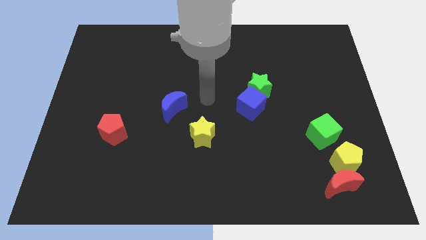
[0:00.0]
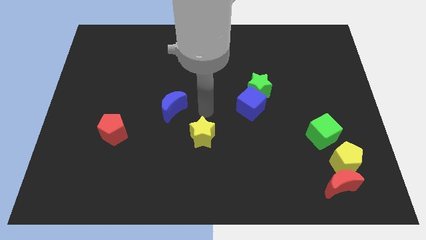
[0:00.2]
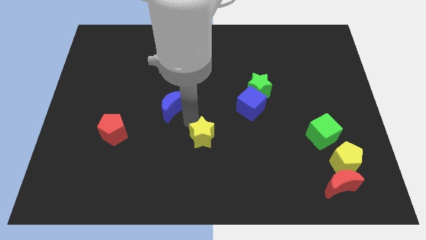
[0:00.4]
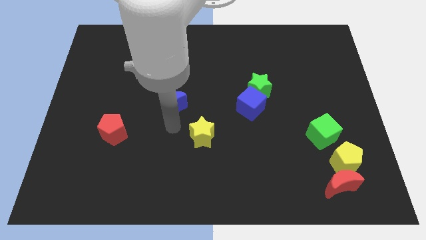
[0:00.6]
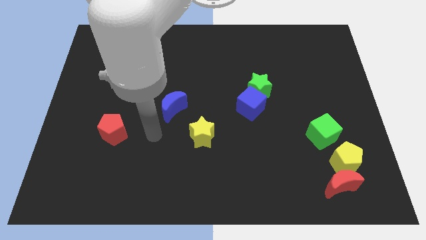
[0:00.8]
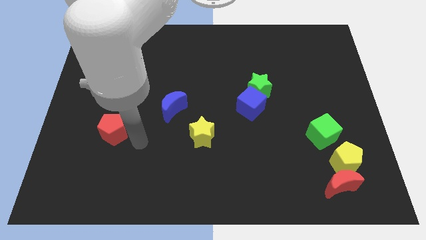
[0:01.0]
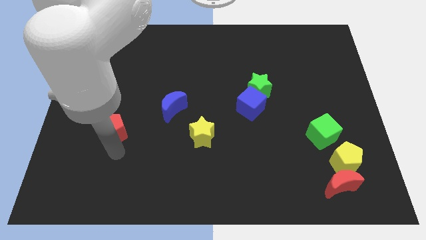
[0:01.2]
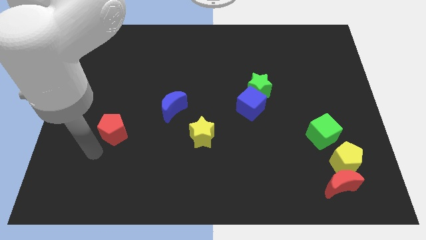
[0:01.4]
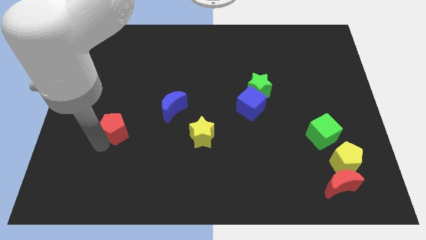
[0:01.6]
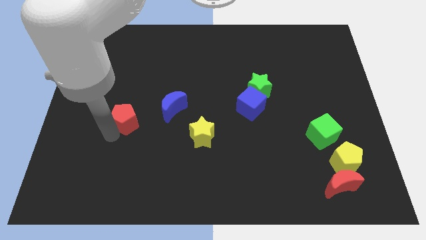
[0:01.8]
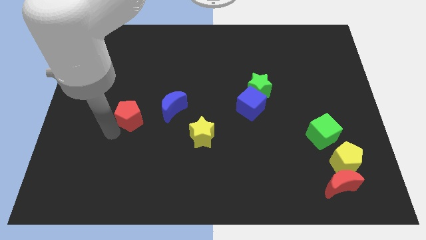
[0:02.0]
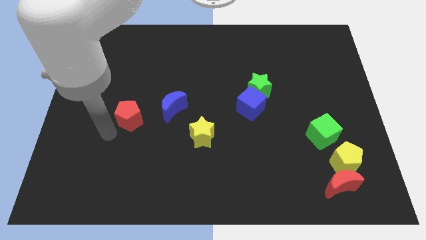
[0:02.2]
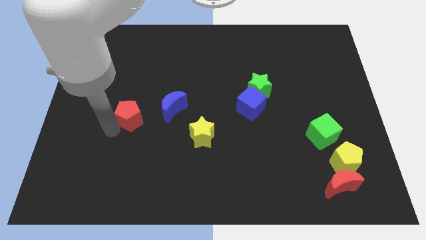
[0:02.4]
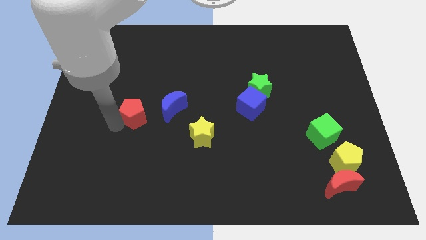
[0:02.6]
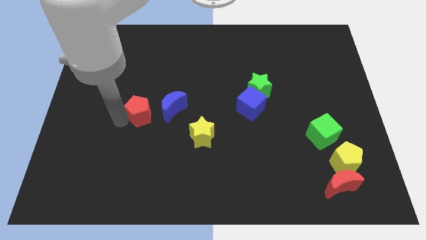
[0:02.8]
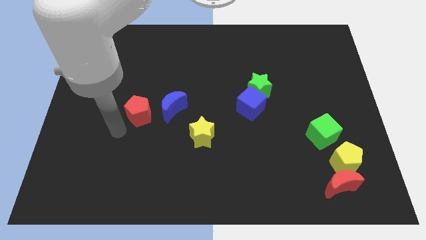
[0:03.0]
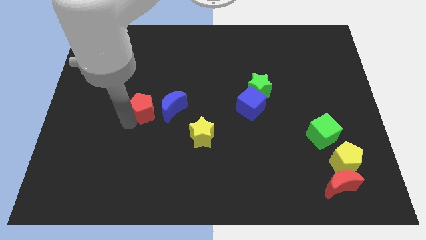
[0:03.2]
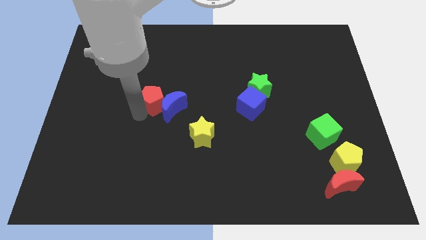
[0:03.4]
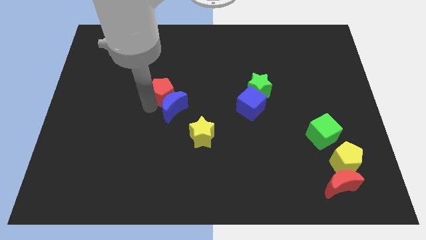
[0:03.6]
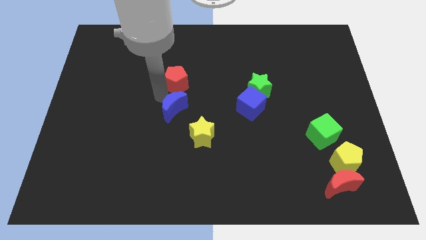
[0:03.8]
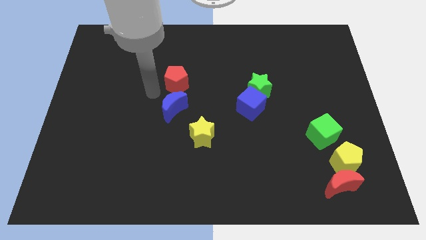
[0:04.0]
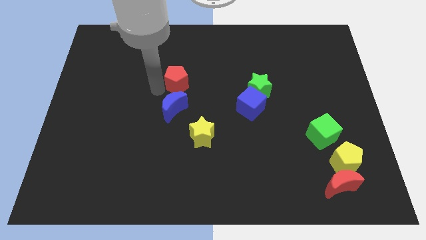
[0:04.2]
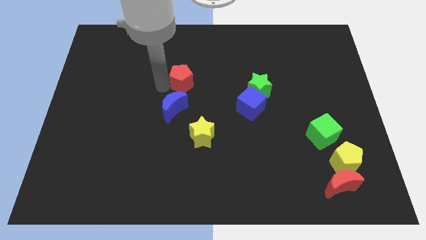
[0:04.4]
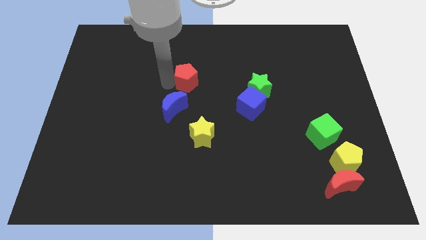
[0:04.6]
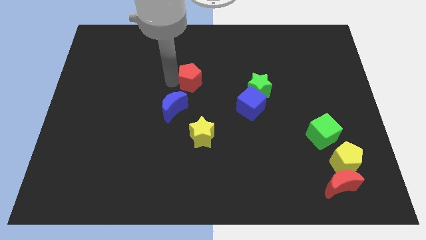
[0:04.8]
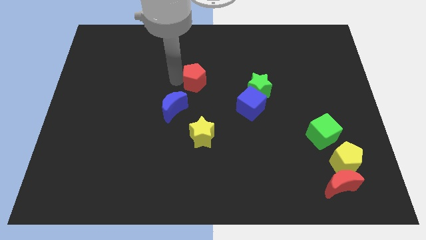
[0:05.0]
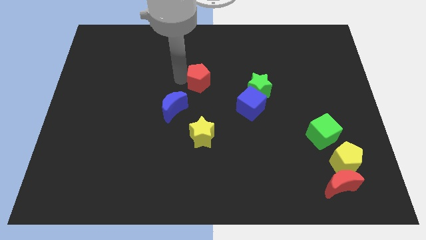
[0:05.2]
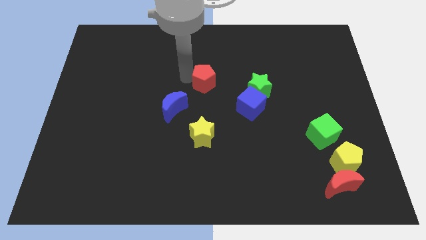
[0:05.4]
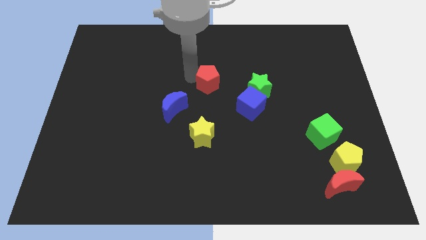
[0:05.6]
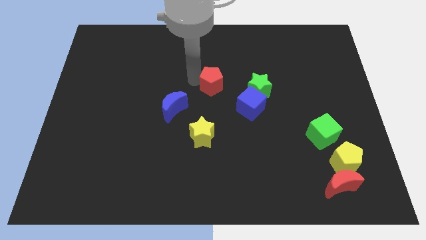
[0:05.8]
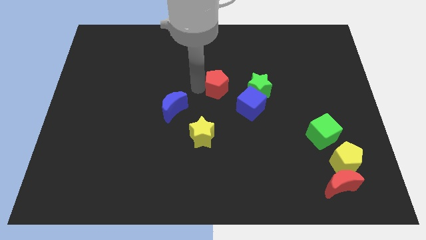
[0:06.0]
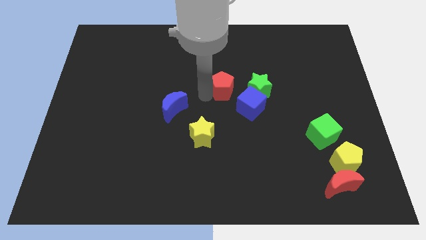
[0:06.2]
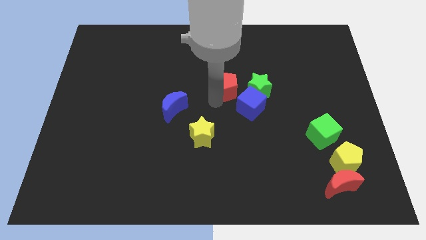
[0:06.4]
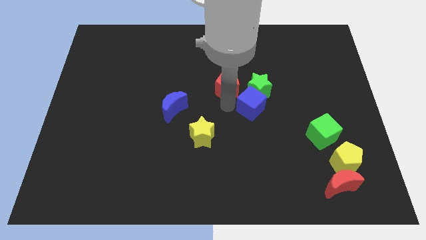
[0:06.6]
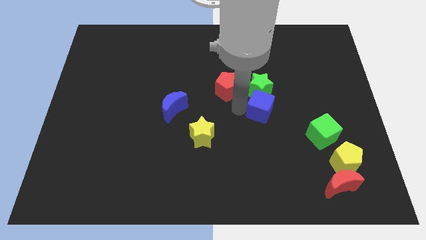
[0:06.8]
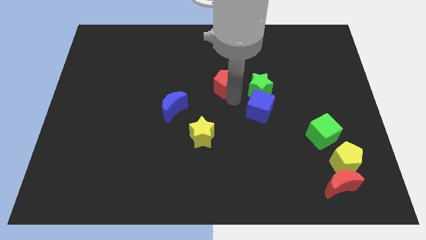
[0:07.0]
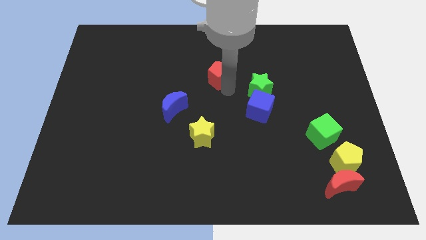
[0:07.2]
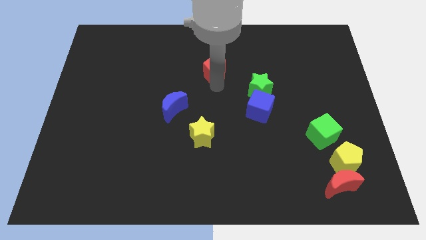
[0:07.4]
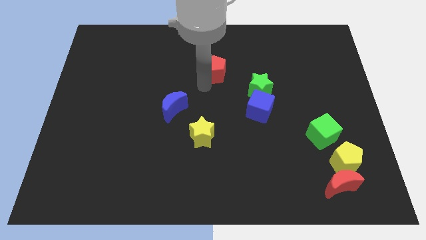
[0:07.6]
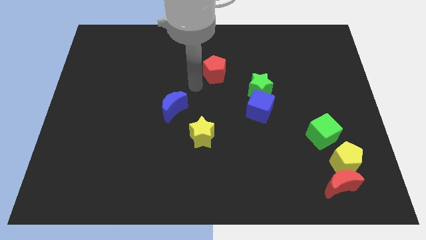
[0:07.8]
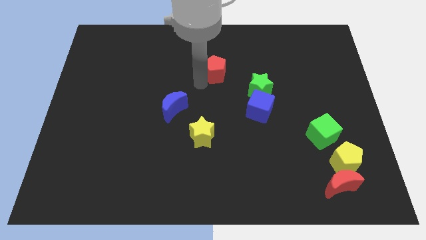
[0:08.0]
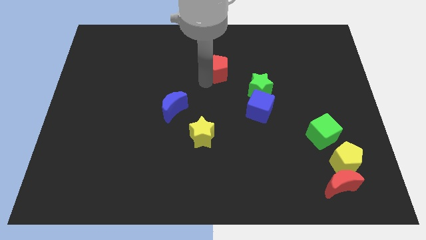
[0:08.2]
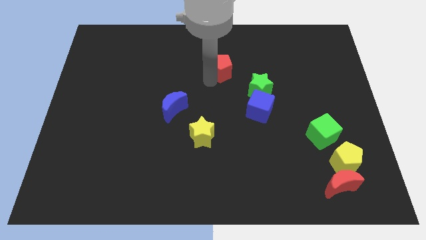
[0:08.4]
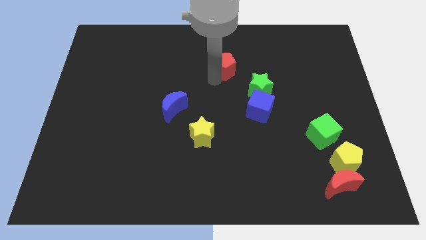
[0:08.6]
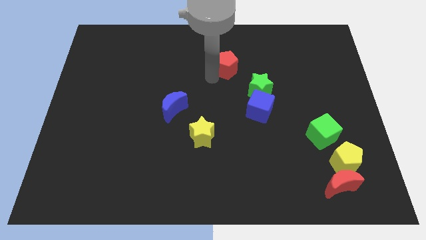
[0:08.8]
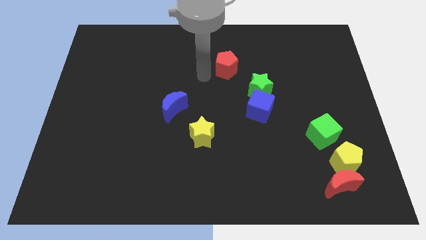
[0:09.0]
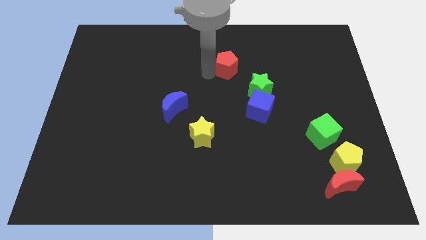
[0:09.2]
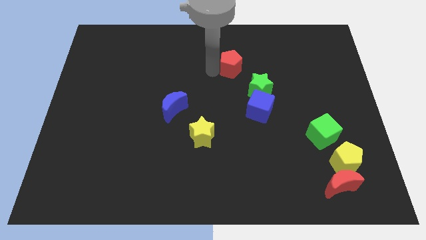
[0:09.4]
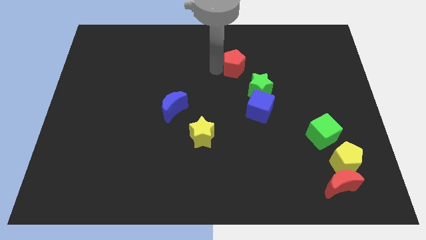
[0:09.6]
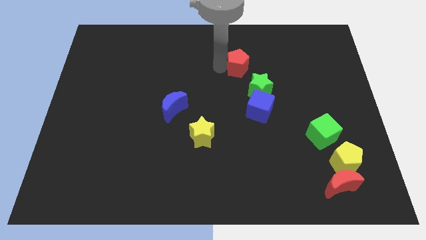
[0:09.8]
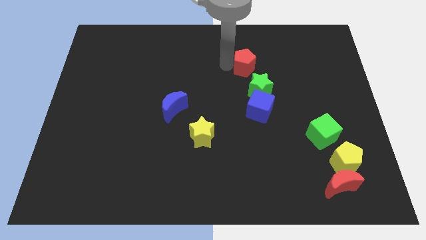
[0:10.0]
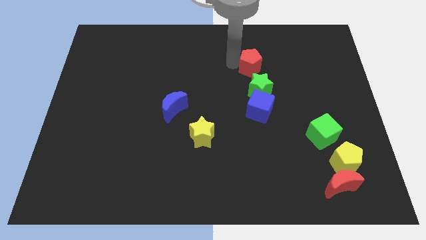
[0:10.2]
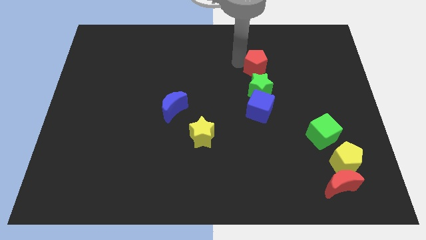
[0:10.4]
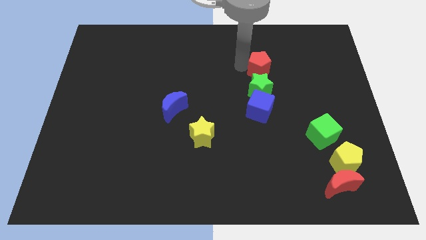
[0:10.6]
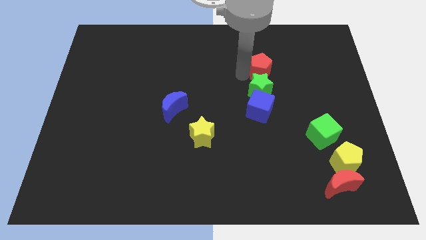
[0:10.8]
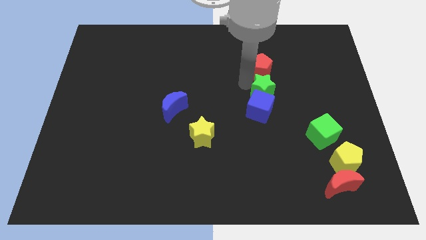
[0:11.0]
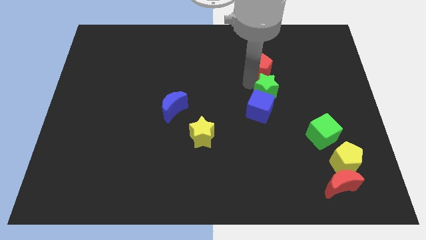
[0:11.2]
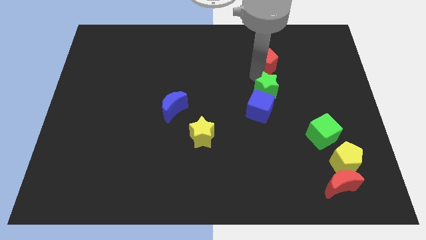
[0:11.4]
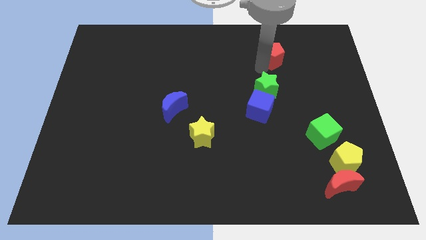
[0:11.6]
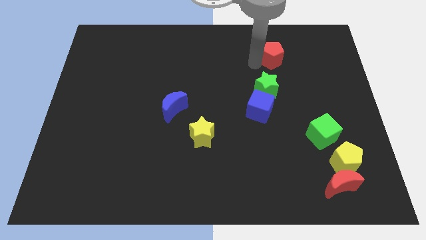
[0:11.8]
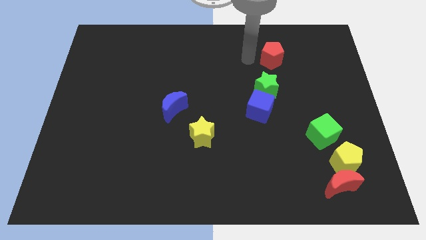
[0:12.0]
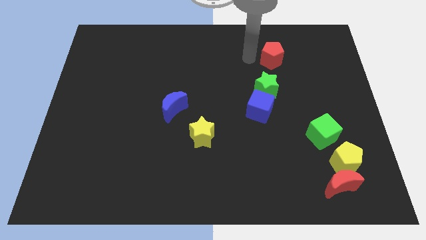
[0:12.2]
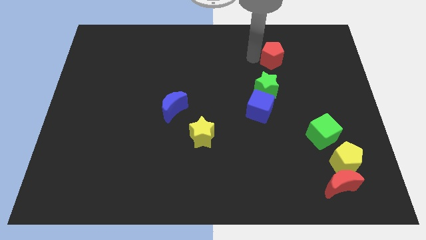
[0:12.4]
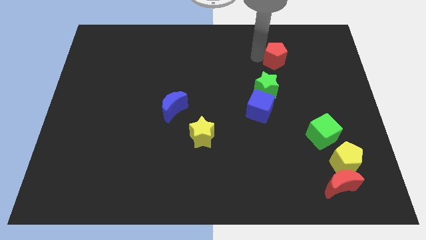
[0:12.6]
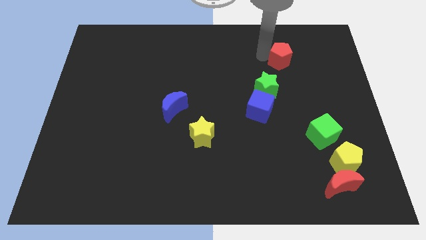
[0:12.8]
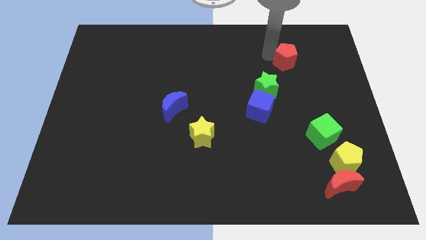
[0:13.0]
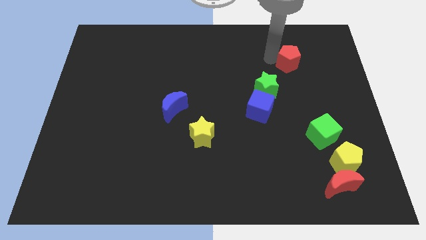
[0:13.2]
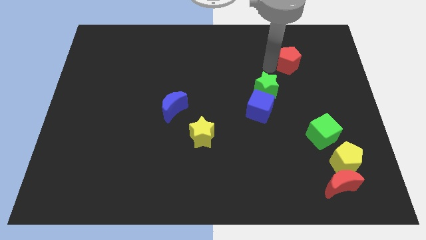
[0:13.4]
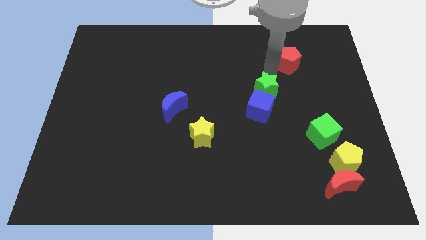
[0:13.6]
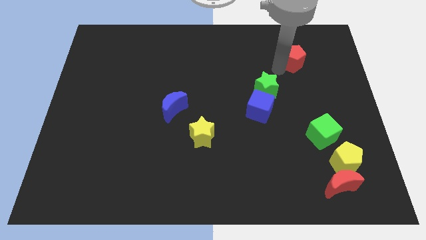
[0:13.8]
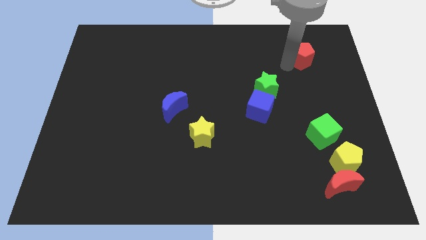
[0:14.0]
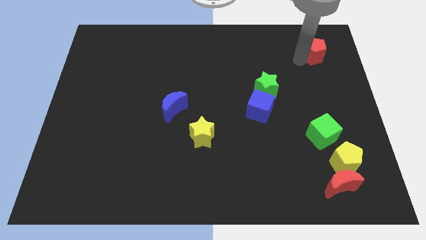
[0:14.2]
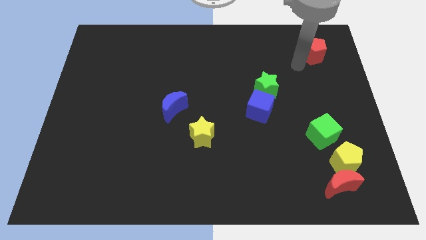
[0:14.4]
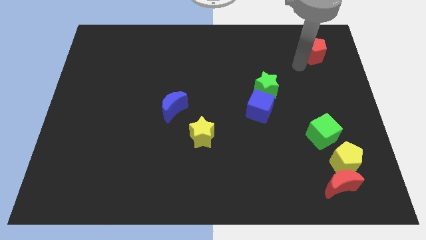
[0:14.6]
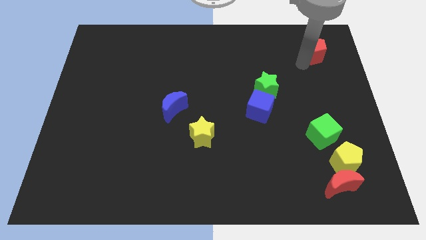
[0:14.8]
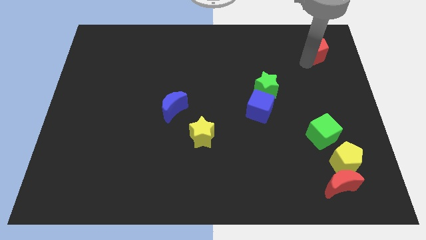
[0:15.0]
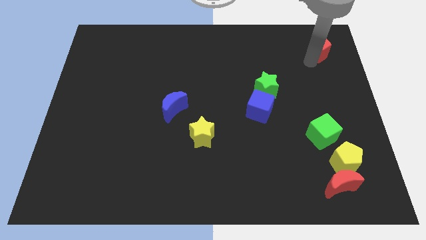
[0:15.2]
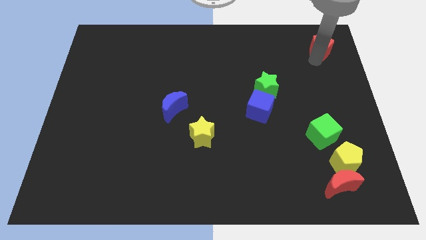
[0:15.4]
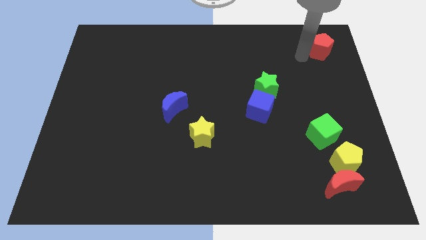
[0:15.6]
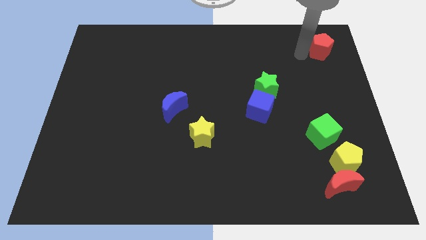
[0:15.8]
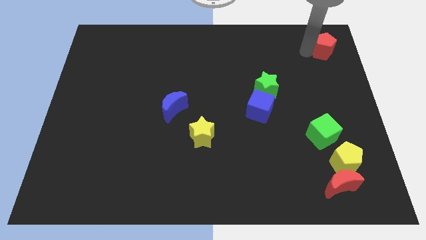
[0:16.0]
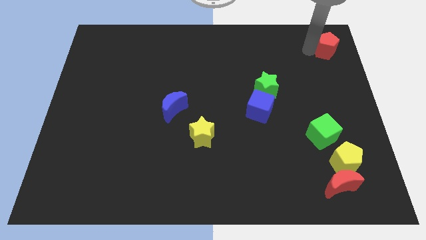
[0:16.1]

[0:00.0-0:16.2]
slide the red pentagon to the top right of the board
